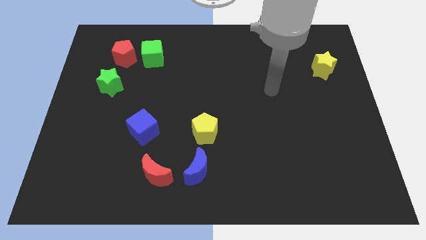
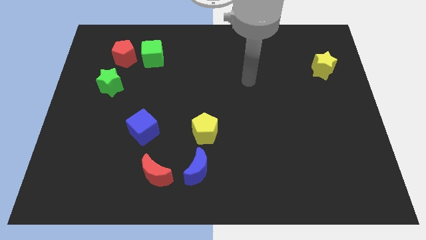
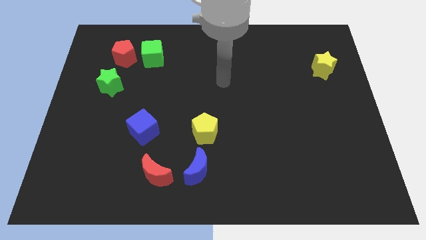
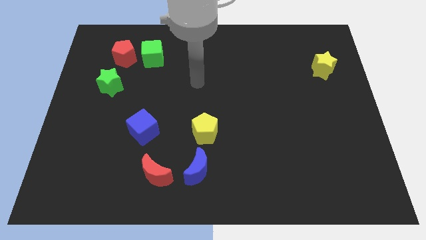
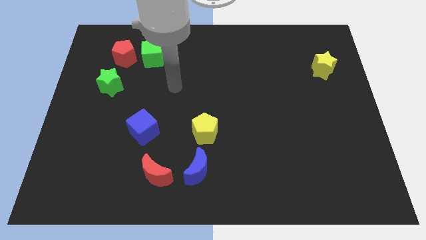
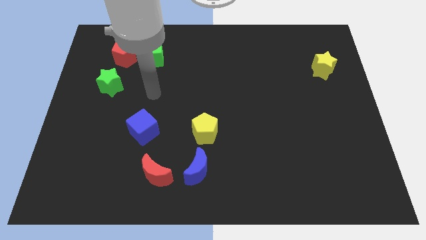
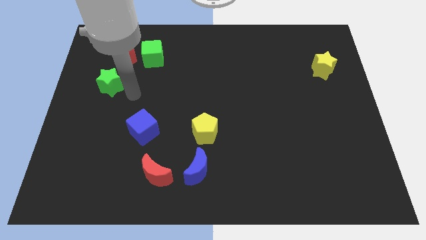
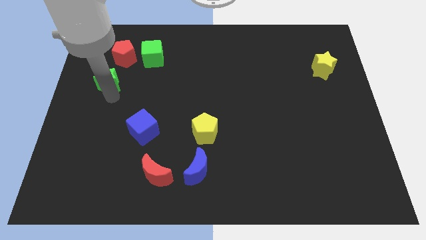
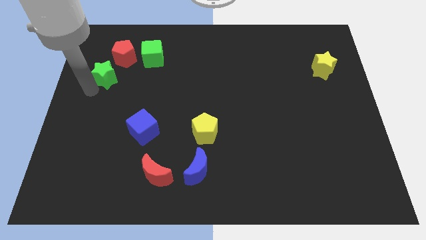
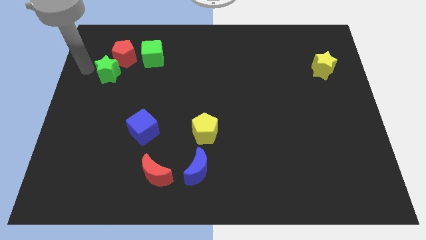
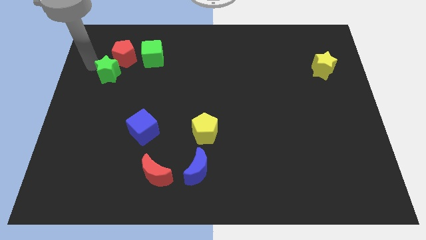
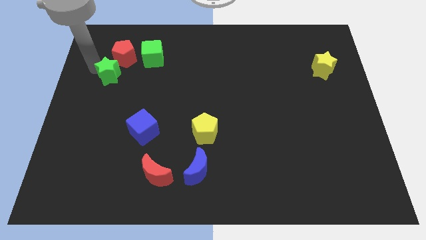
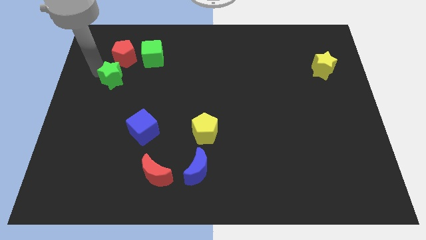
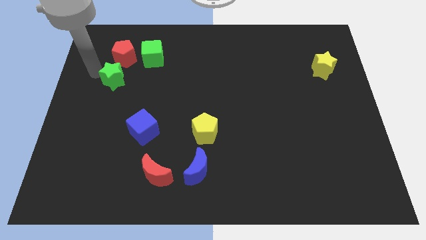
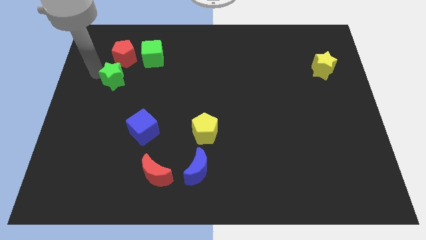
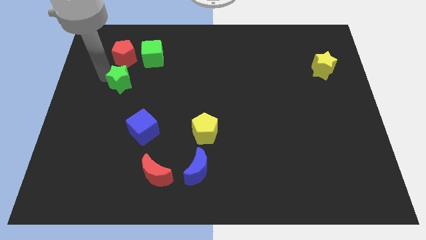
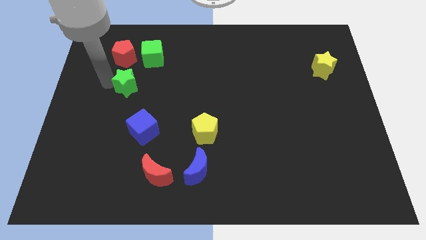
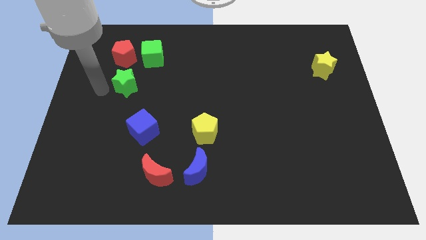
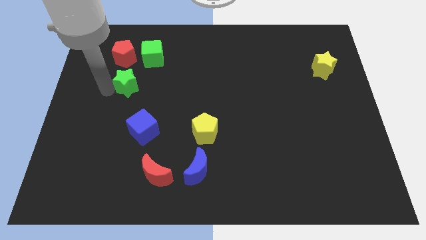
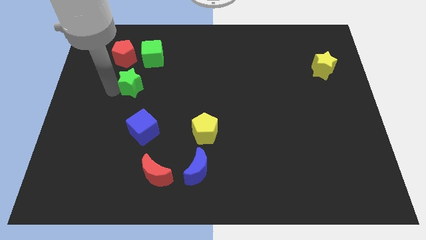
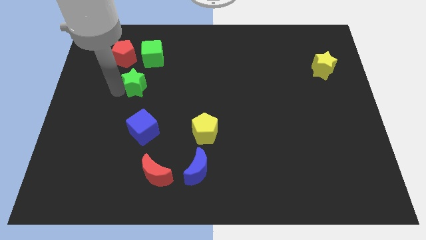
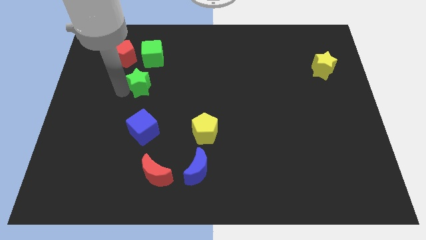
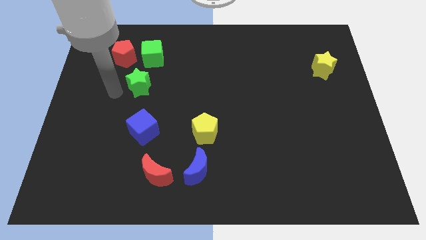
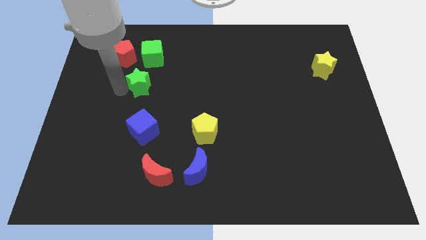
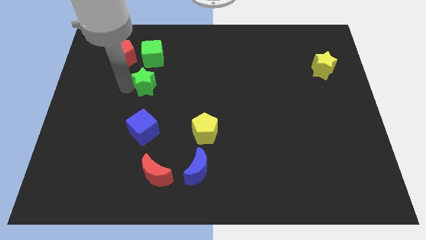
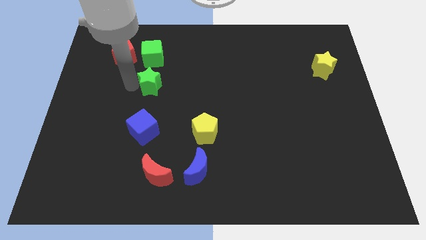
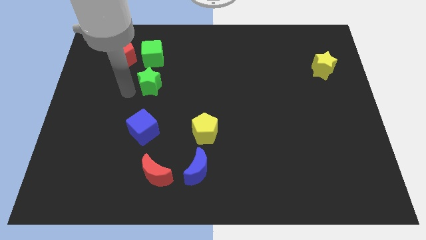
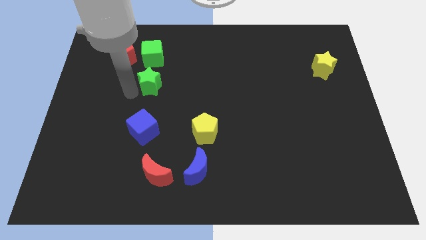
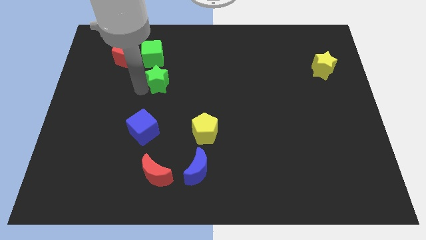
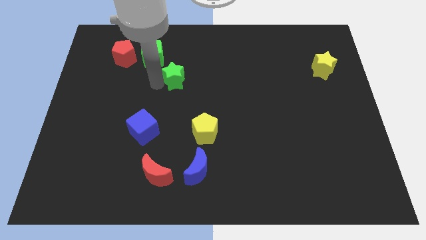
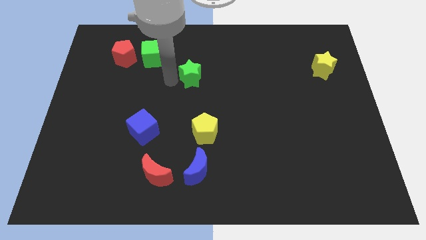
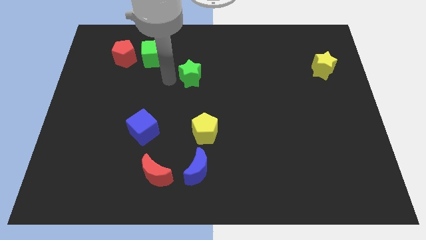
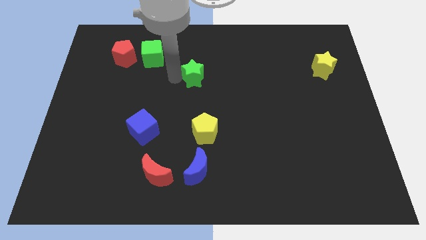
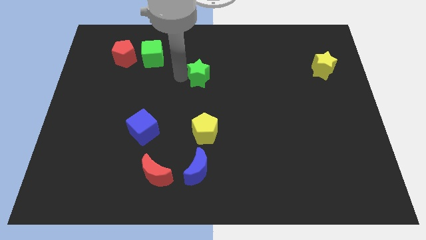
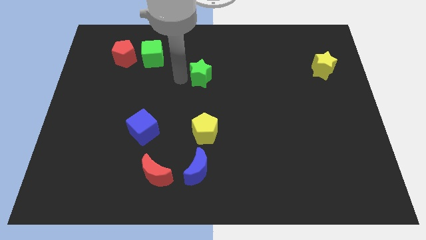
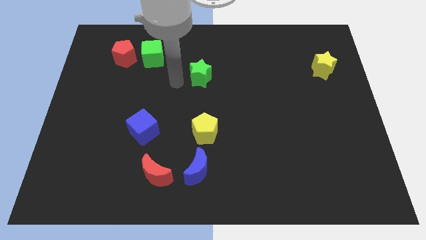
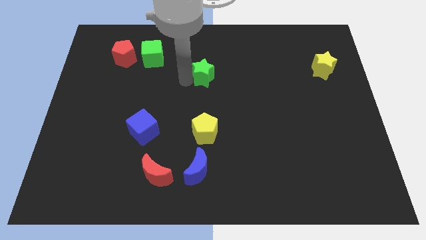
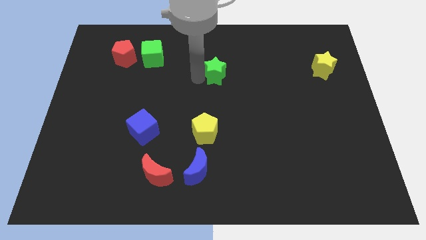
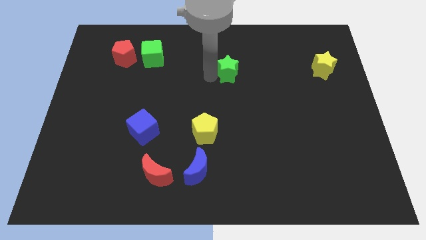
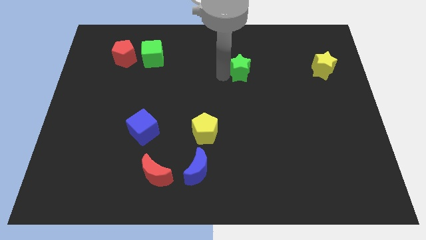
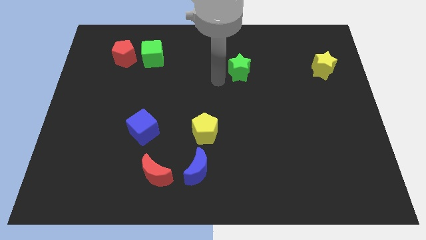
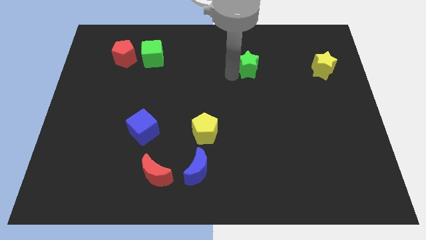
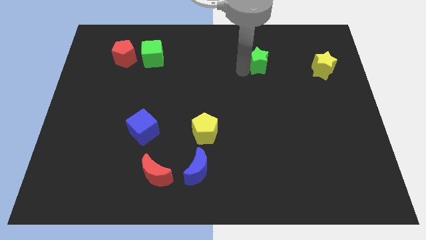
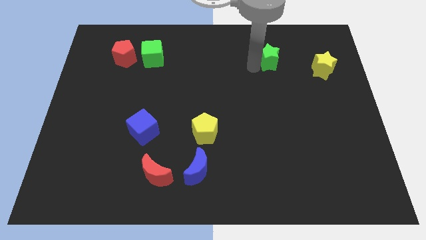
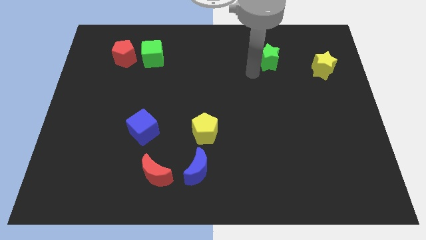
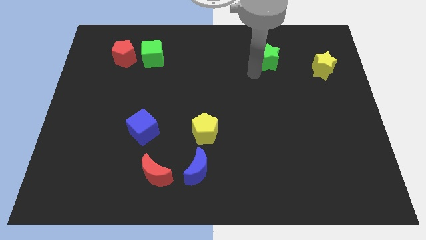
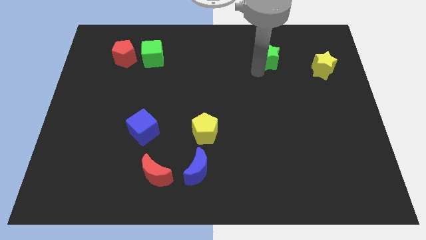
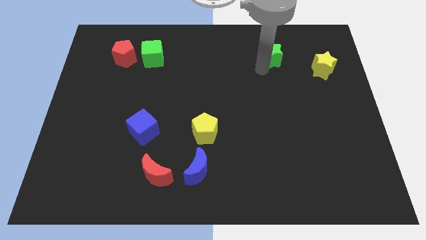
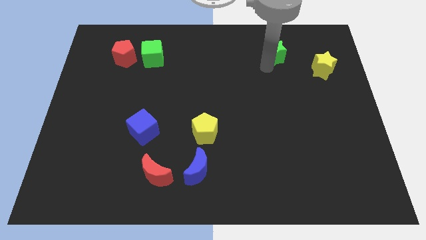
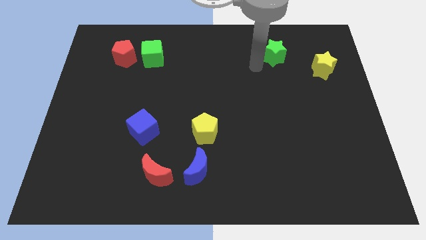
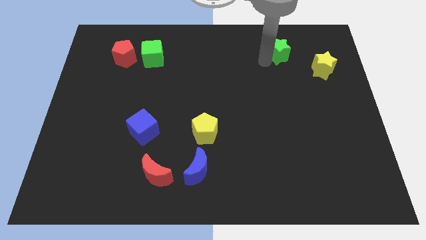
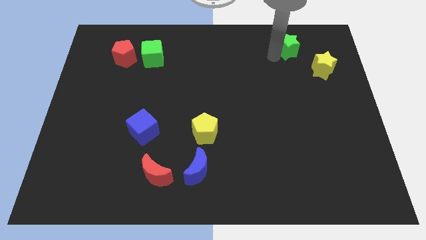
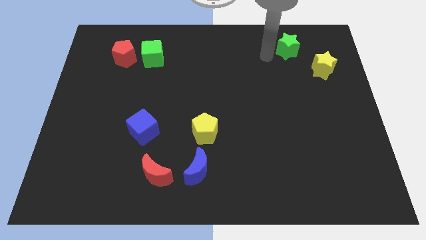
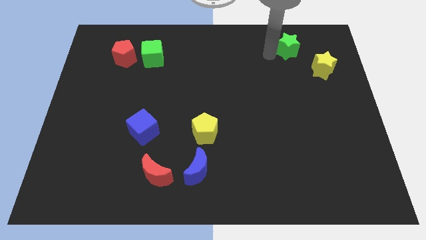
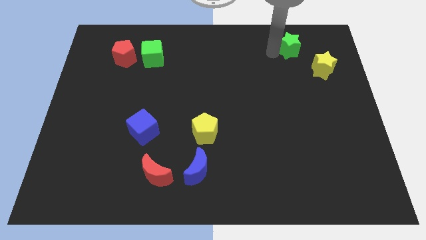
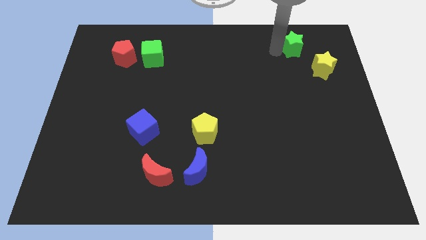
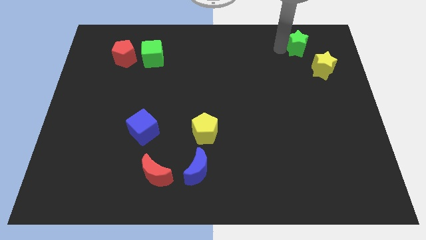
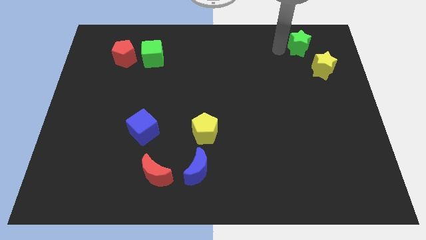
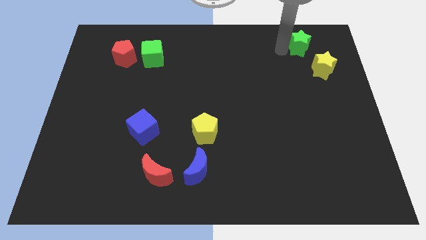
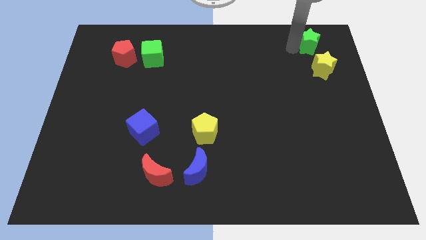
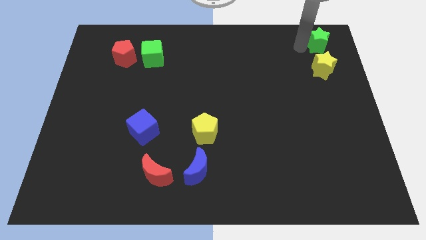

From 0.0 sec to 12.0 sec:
slide the green star to the top right of the board
